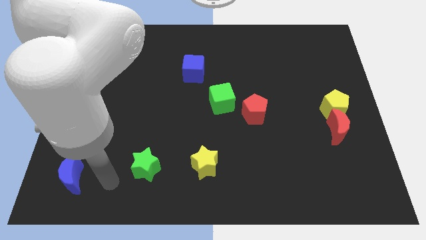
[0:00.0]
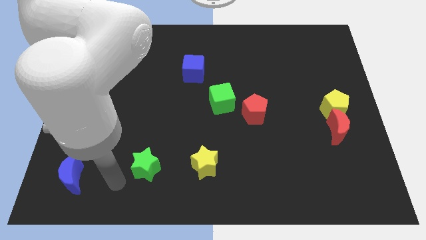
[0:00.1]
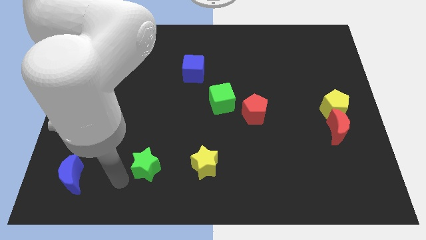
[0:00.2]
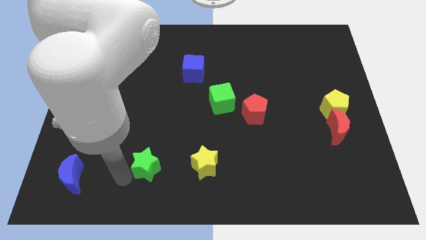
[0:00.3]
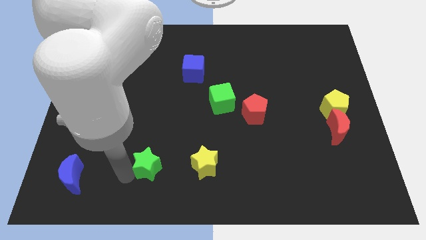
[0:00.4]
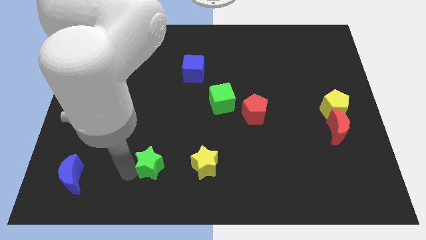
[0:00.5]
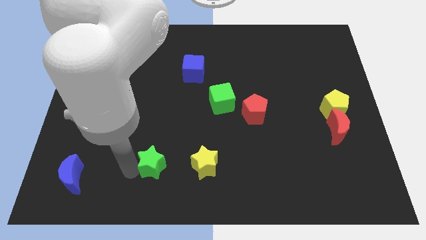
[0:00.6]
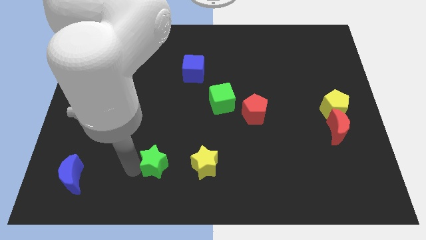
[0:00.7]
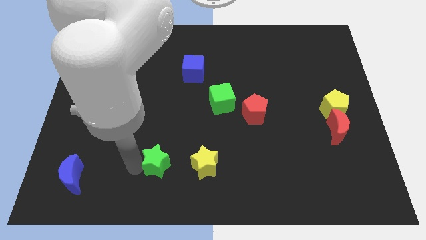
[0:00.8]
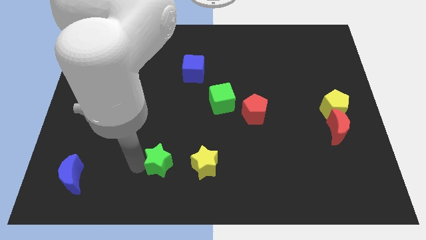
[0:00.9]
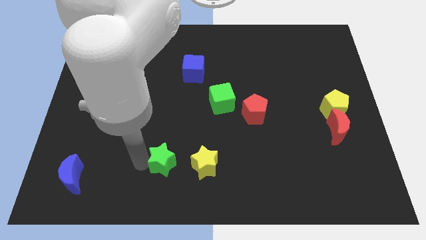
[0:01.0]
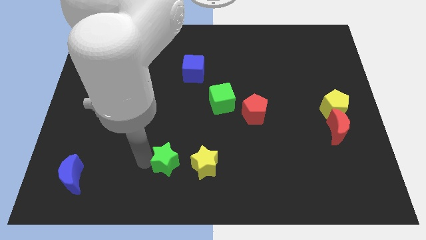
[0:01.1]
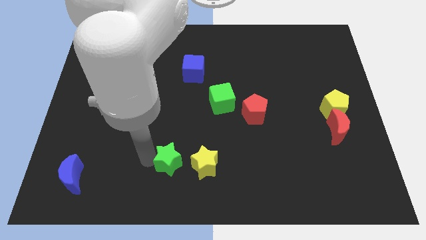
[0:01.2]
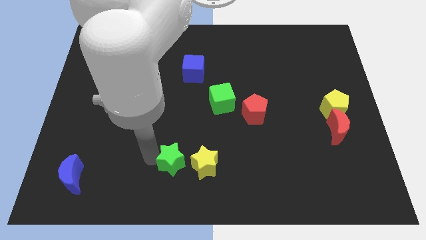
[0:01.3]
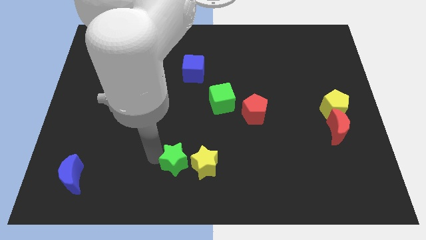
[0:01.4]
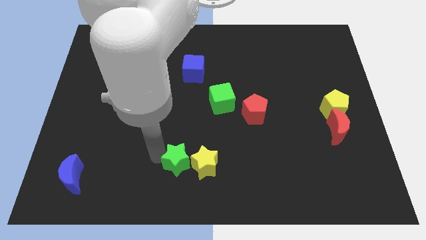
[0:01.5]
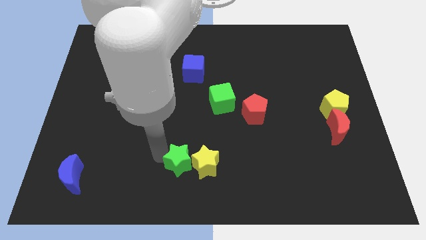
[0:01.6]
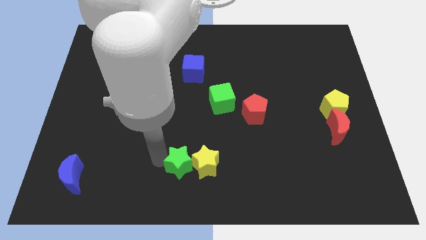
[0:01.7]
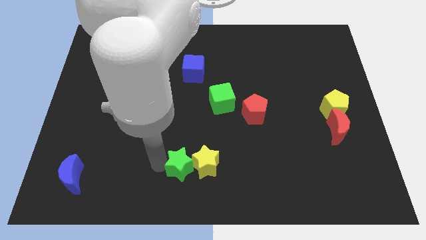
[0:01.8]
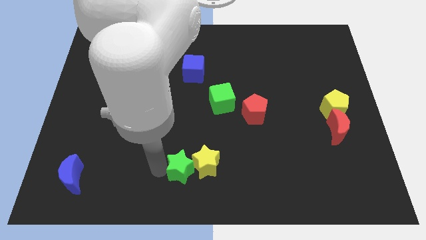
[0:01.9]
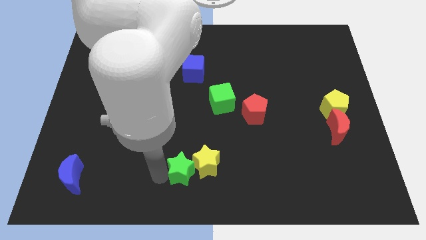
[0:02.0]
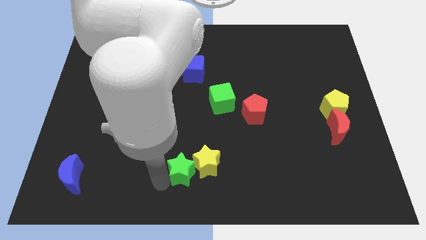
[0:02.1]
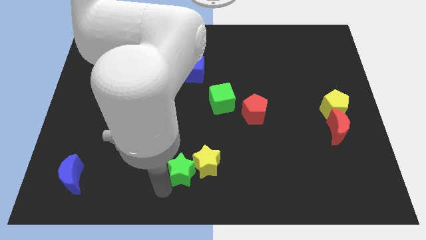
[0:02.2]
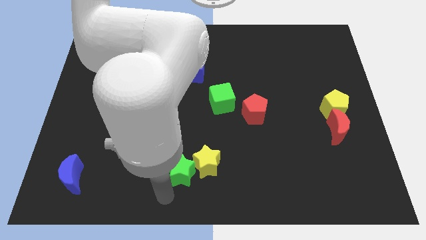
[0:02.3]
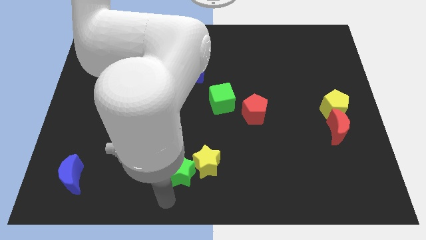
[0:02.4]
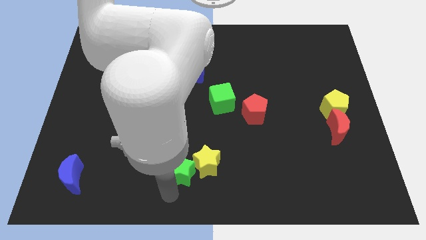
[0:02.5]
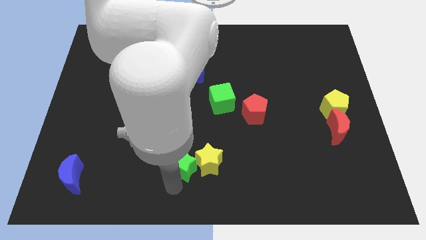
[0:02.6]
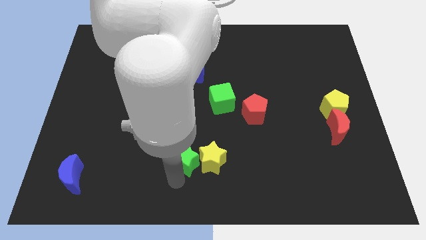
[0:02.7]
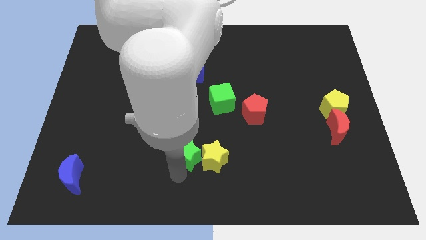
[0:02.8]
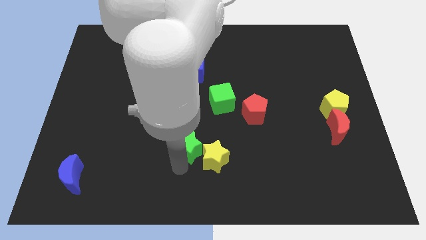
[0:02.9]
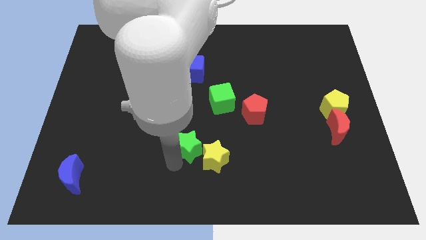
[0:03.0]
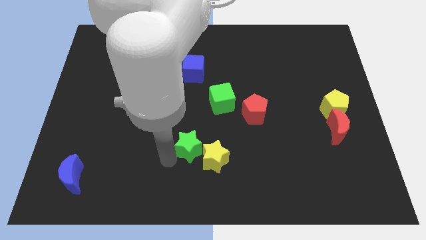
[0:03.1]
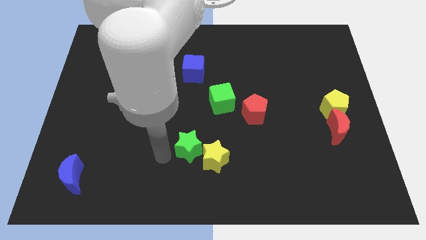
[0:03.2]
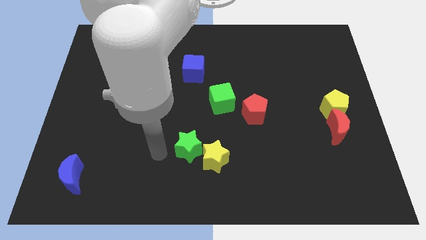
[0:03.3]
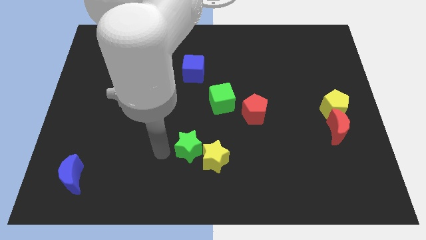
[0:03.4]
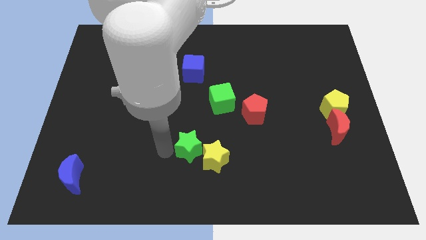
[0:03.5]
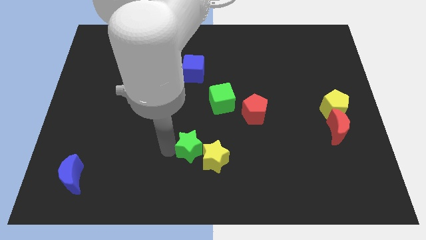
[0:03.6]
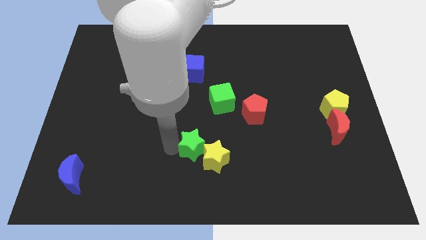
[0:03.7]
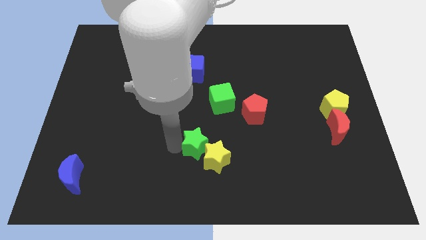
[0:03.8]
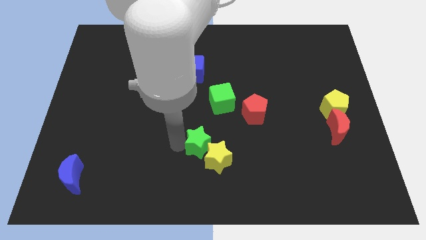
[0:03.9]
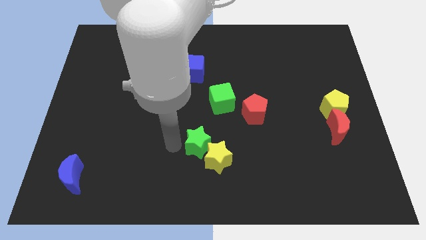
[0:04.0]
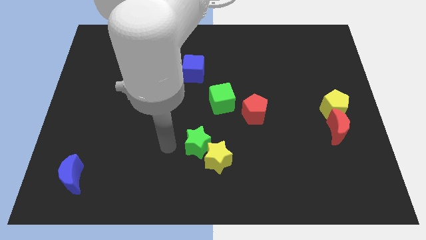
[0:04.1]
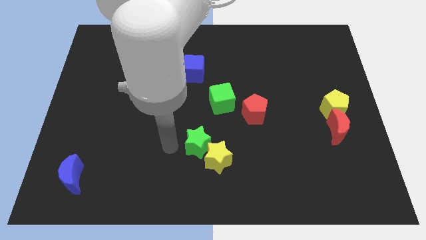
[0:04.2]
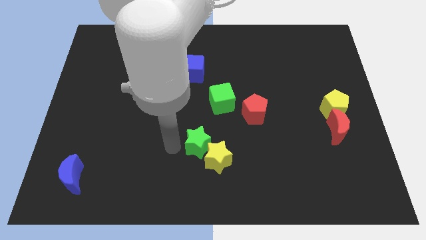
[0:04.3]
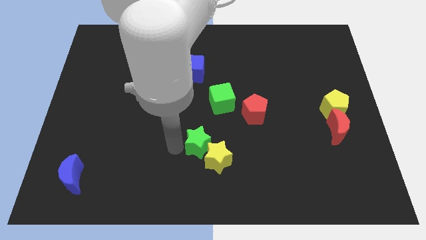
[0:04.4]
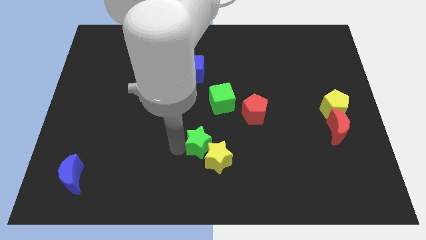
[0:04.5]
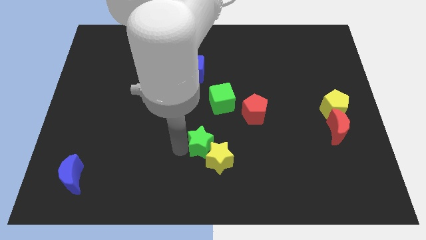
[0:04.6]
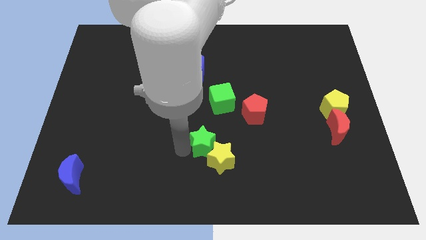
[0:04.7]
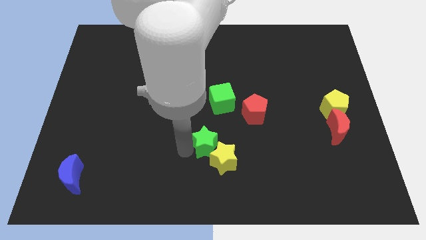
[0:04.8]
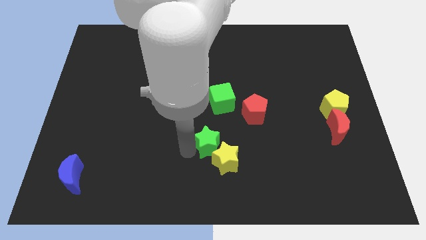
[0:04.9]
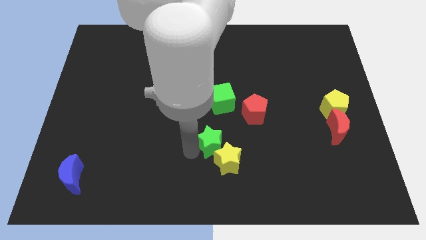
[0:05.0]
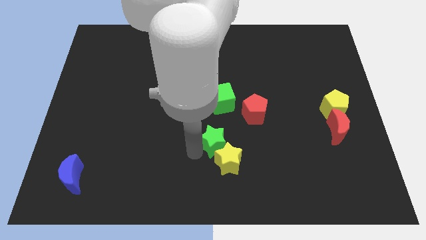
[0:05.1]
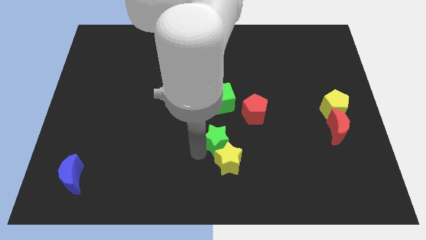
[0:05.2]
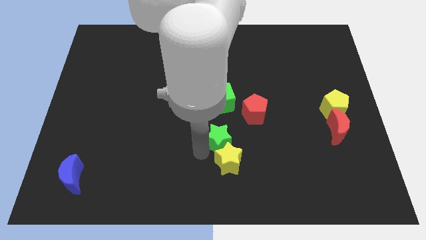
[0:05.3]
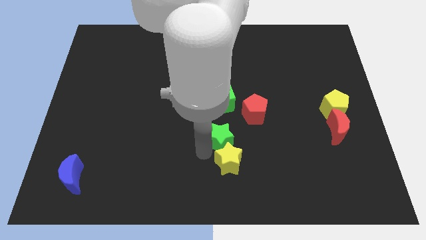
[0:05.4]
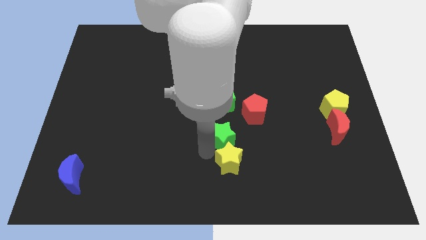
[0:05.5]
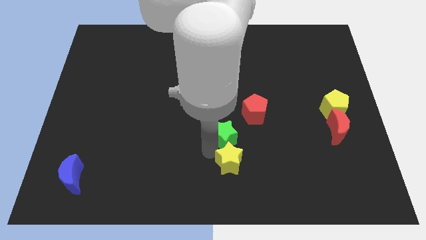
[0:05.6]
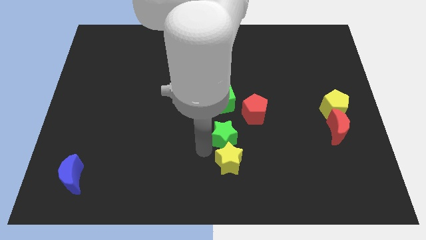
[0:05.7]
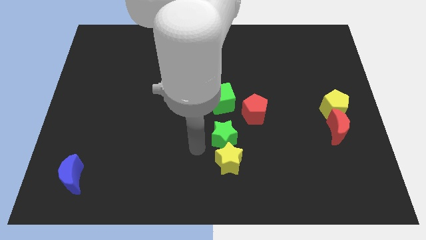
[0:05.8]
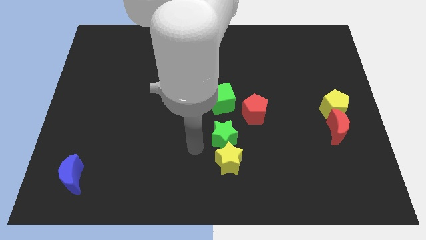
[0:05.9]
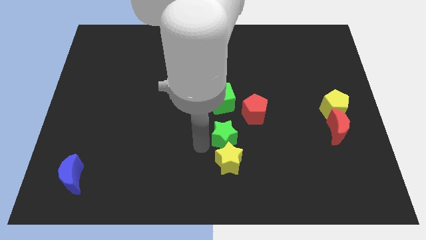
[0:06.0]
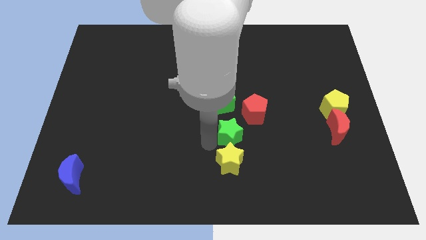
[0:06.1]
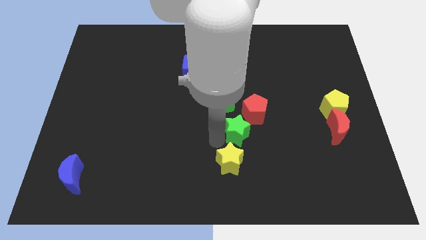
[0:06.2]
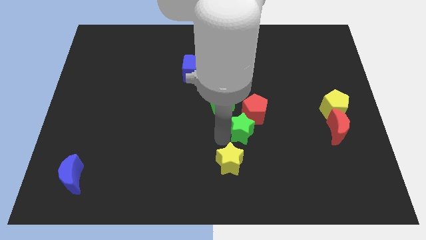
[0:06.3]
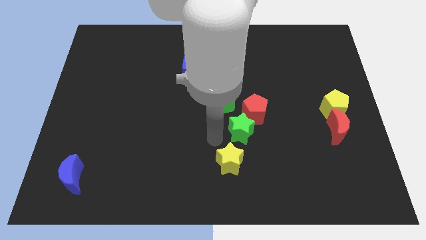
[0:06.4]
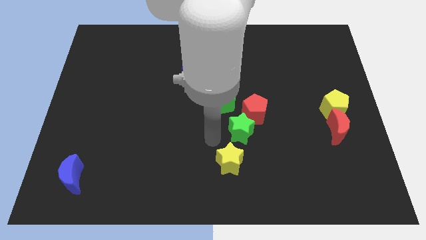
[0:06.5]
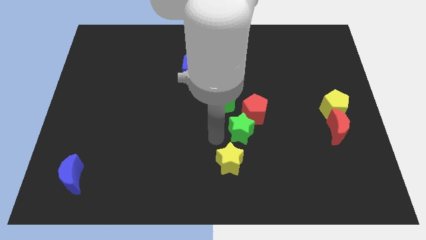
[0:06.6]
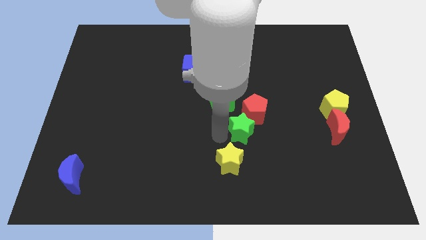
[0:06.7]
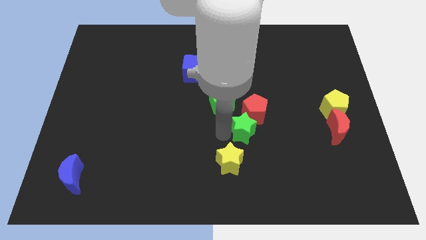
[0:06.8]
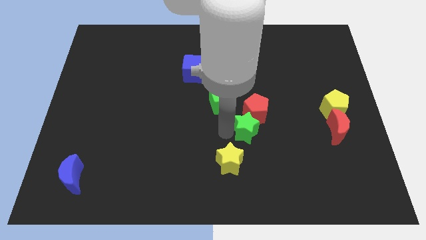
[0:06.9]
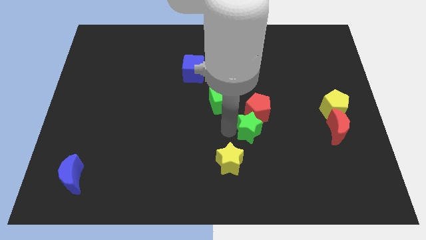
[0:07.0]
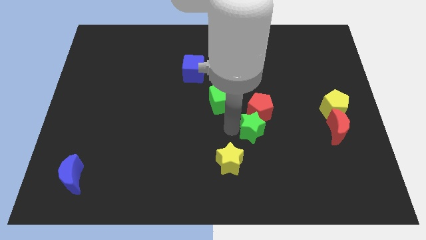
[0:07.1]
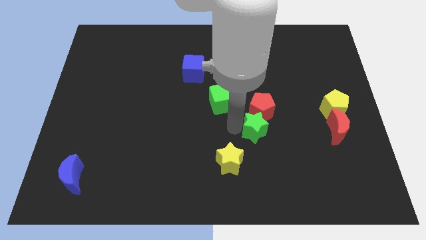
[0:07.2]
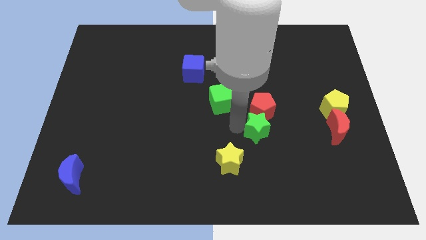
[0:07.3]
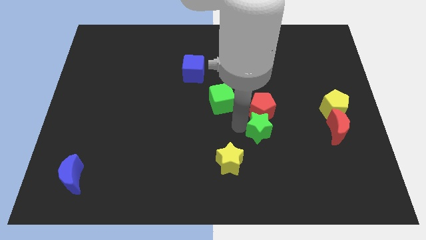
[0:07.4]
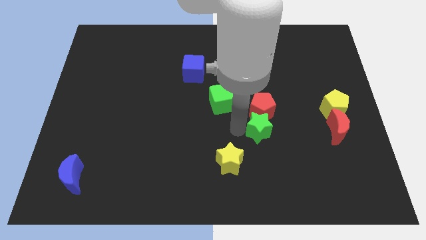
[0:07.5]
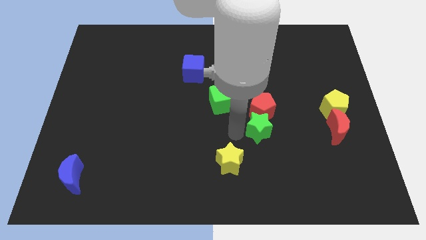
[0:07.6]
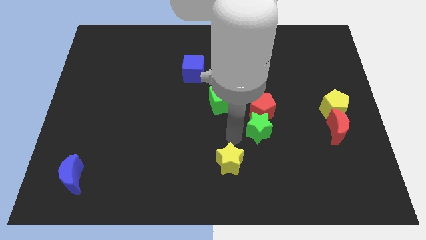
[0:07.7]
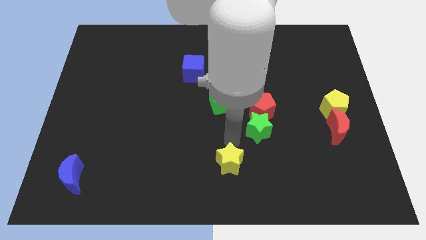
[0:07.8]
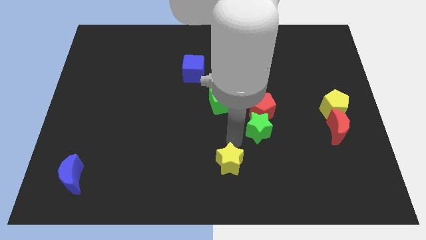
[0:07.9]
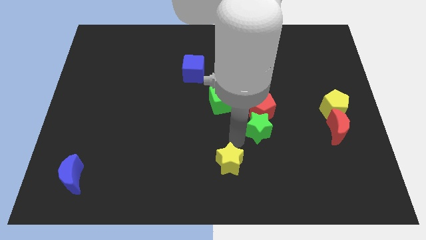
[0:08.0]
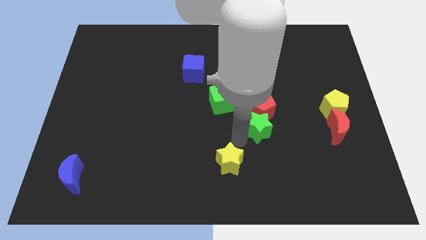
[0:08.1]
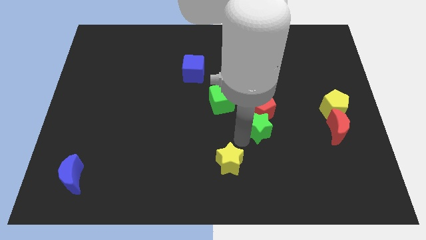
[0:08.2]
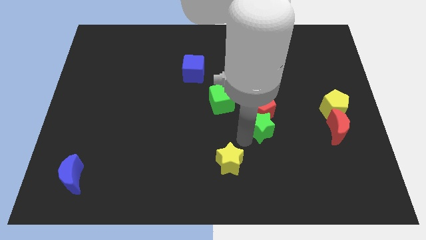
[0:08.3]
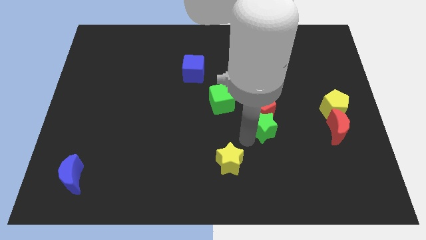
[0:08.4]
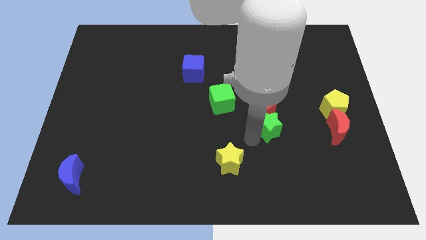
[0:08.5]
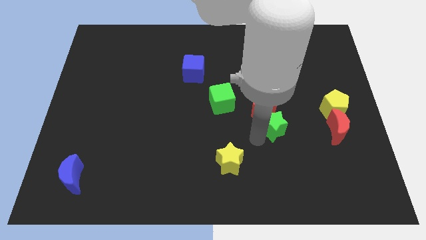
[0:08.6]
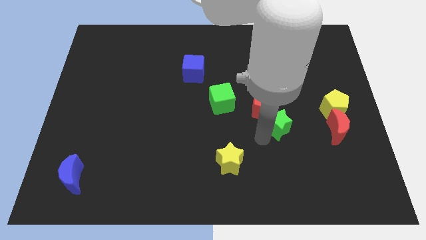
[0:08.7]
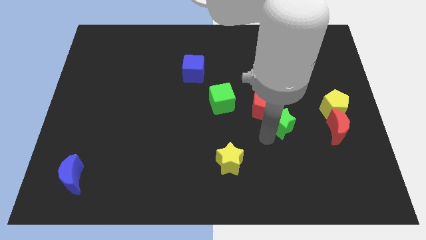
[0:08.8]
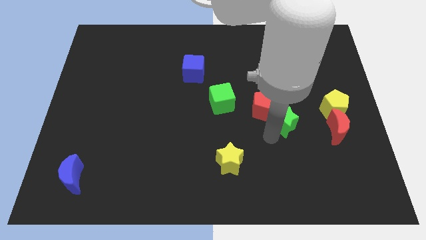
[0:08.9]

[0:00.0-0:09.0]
move the green star to the right side of the red pentagon
